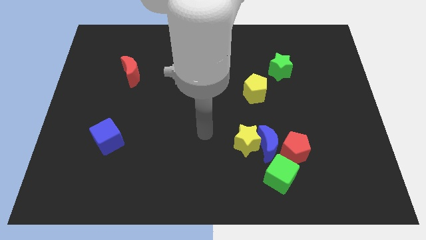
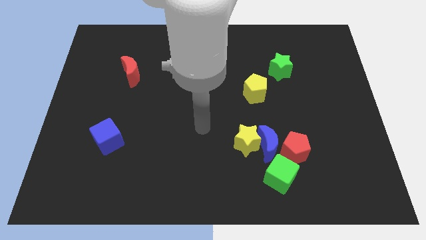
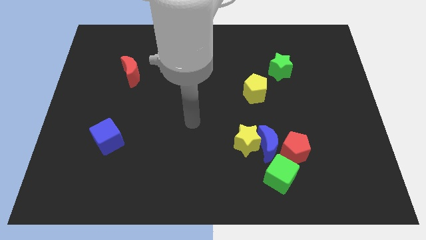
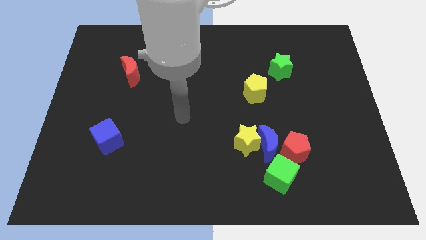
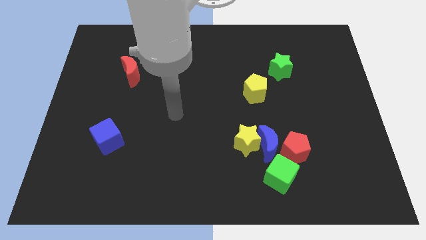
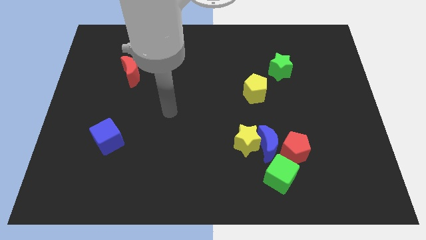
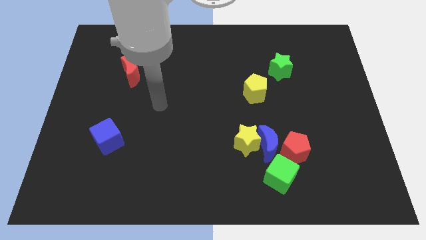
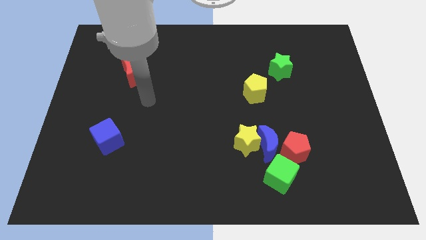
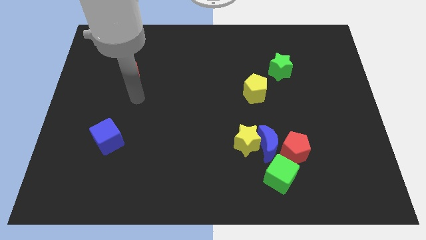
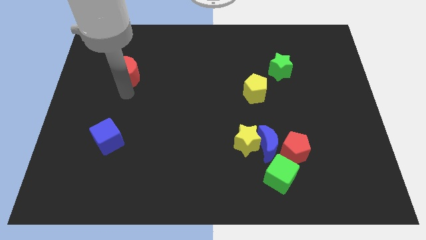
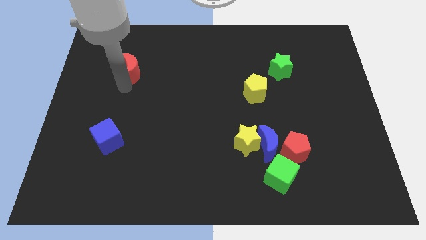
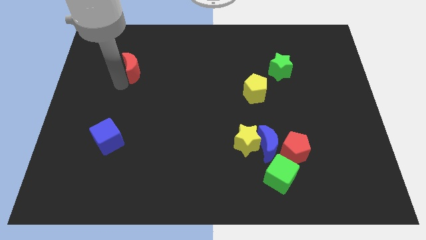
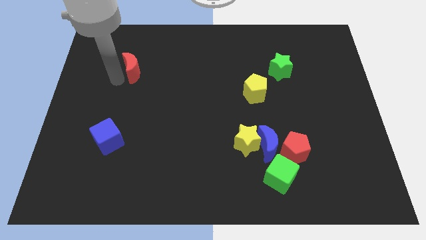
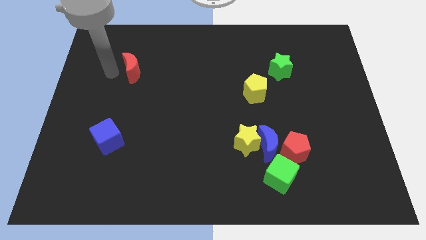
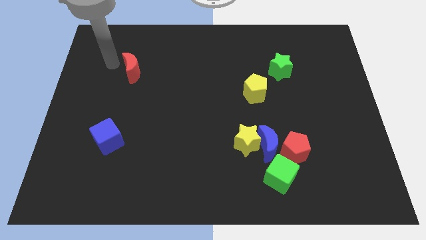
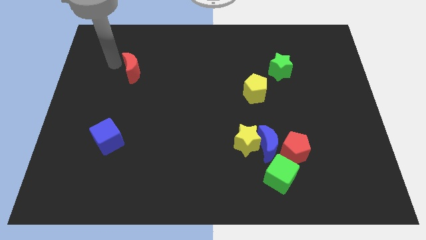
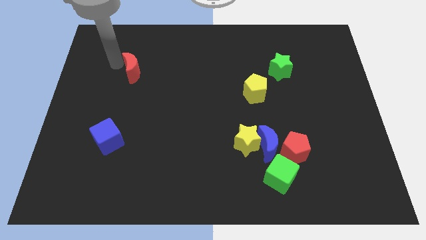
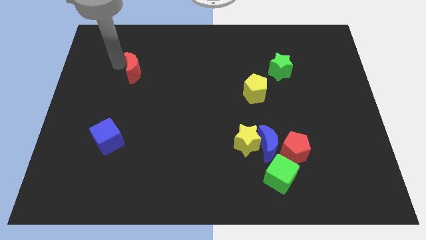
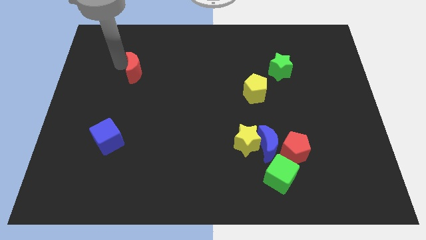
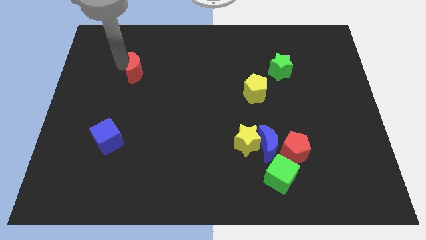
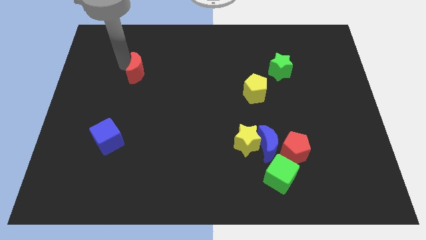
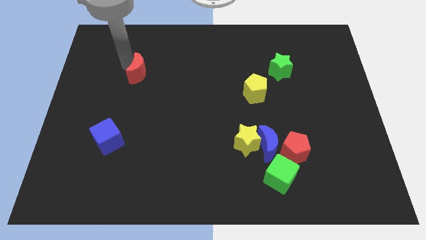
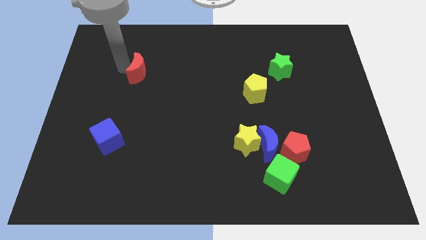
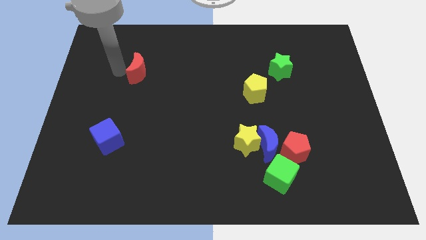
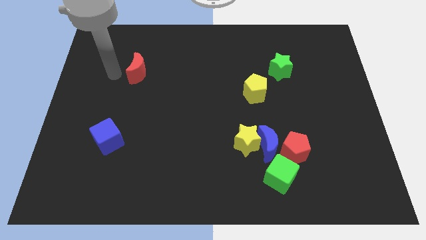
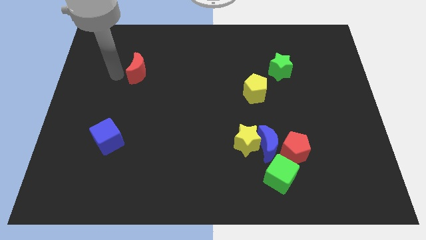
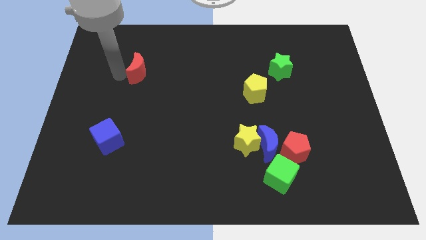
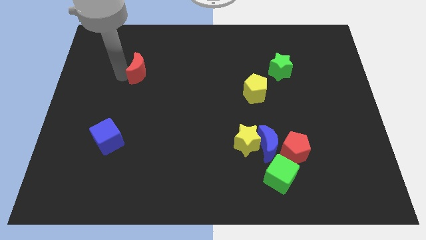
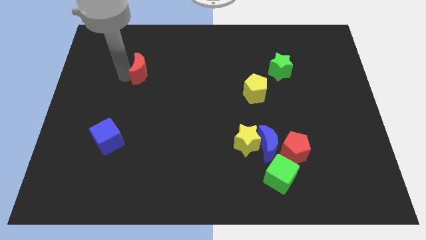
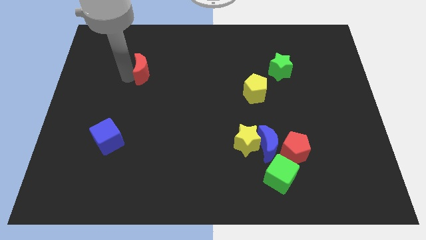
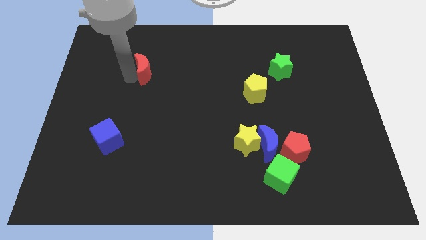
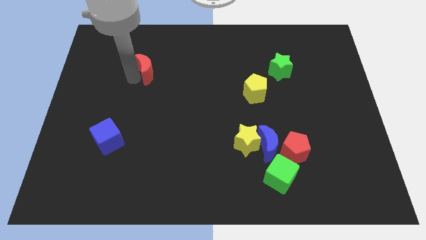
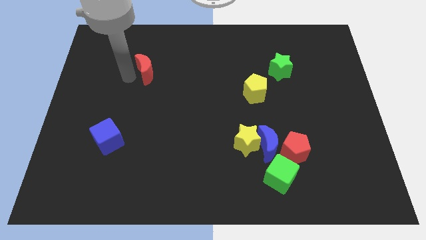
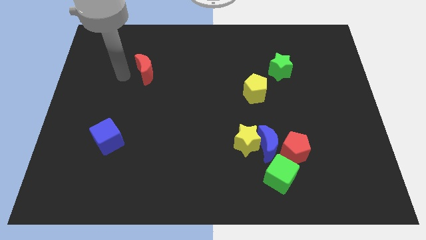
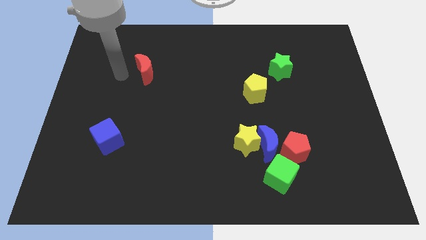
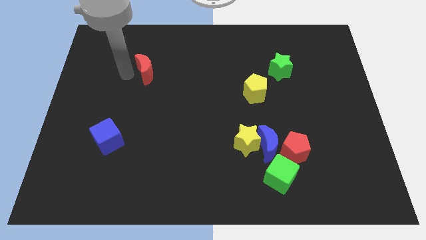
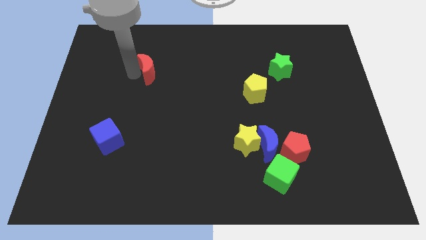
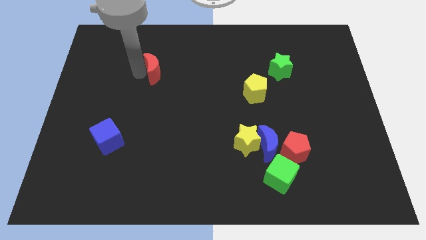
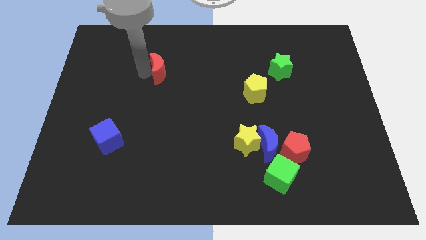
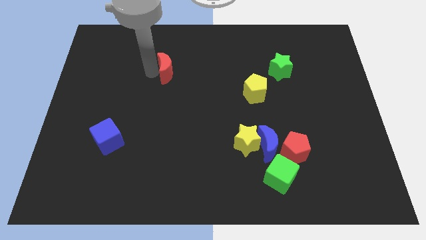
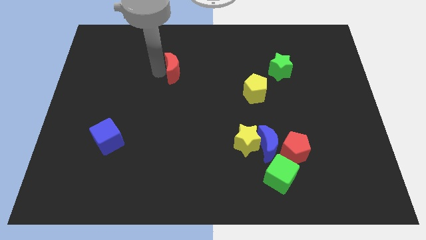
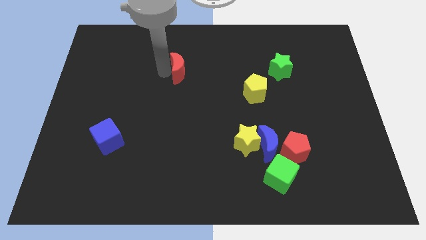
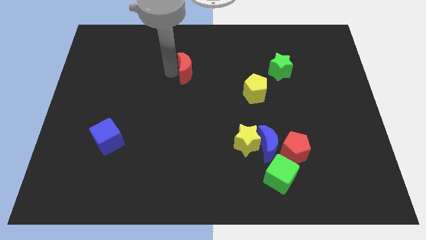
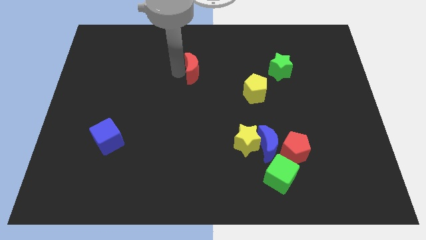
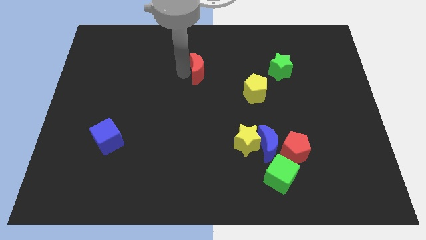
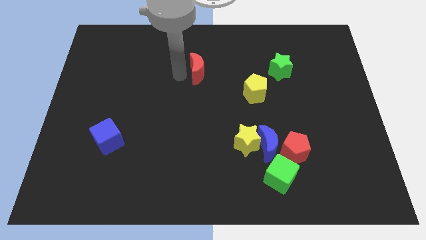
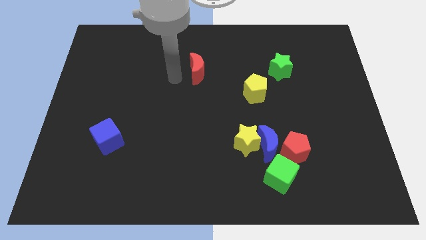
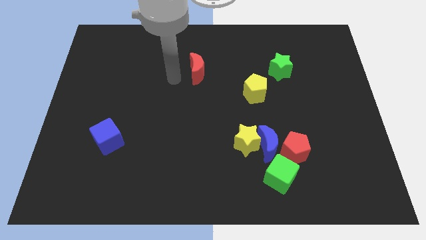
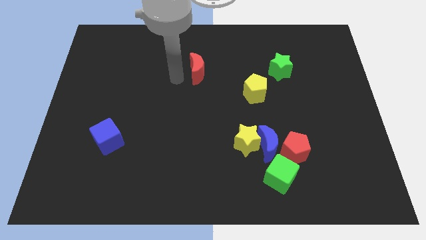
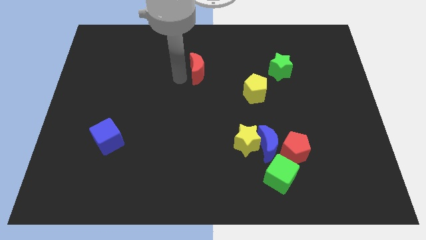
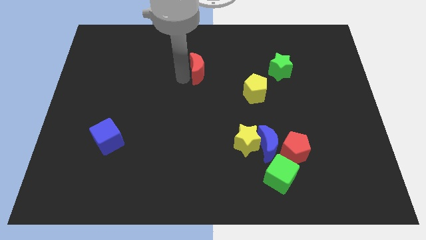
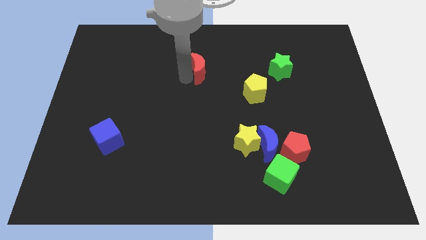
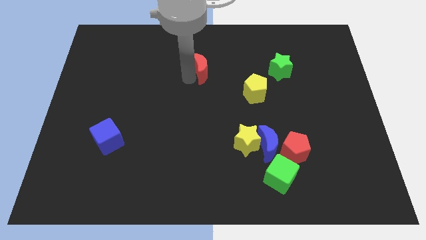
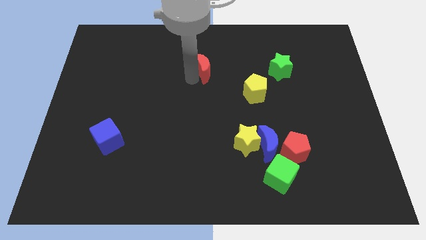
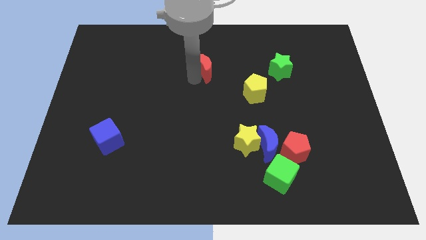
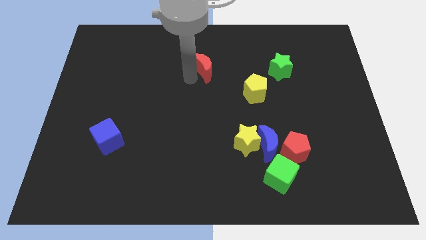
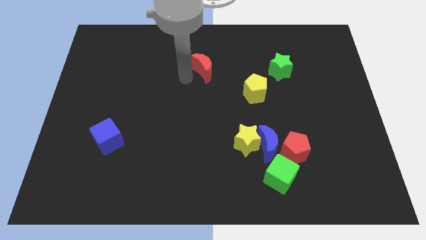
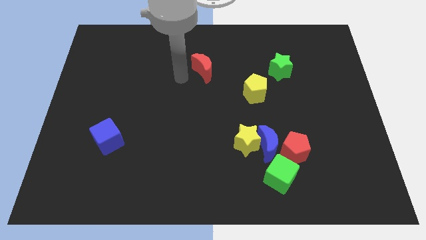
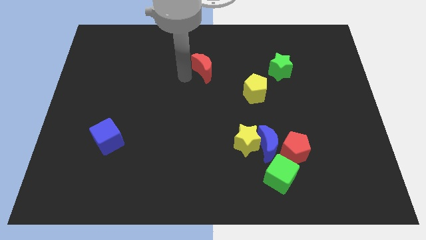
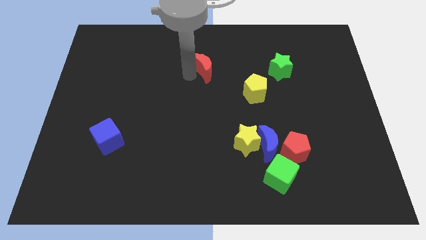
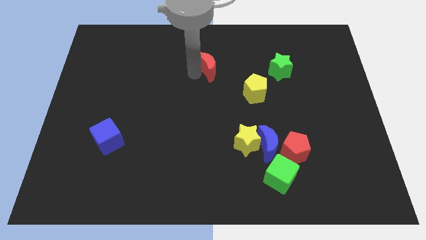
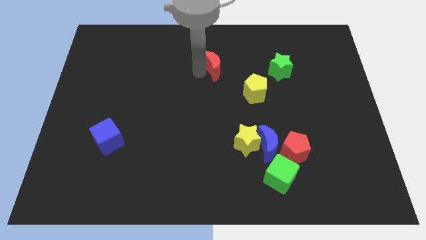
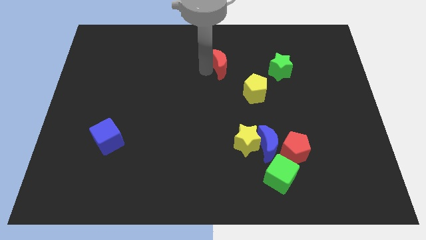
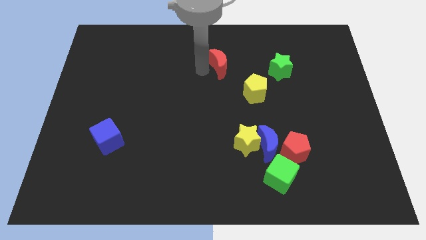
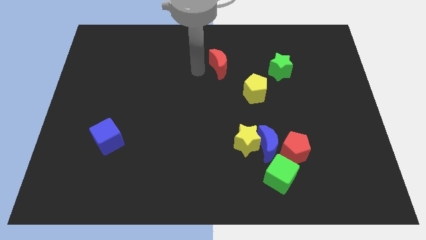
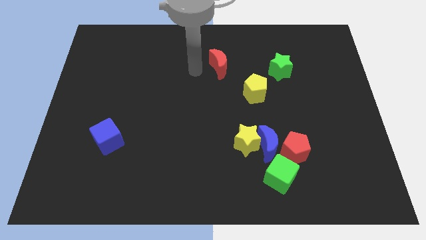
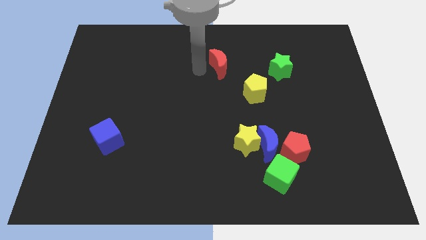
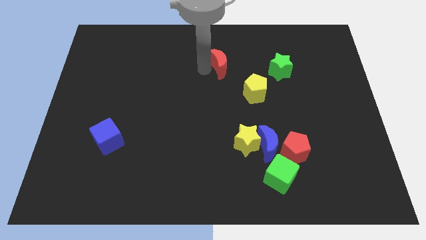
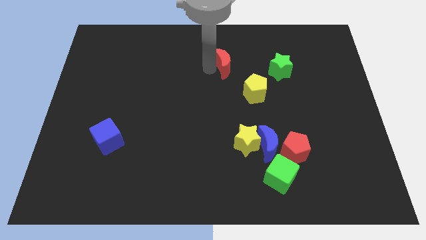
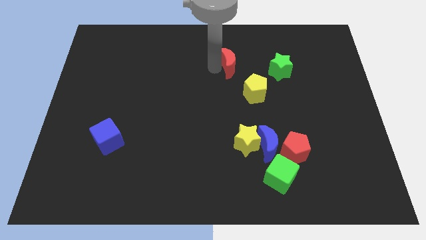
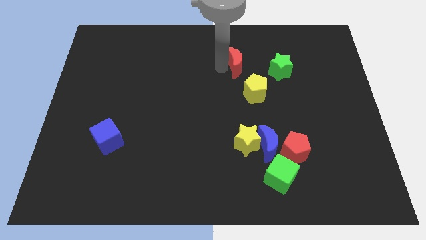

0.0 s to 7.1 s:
push the red moon to the top of the yellow pentagon
